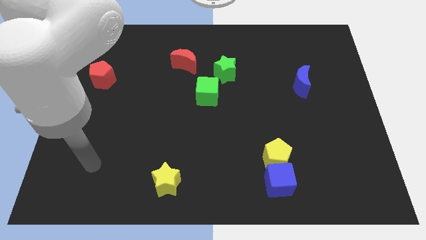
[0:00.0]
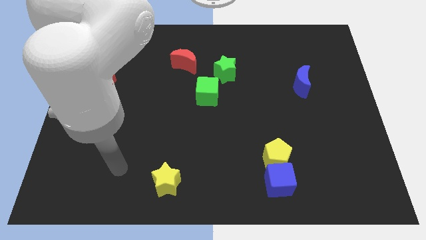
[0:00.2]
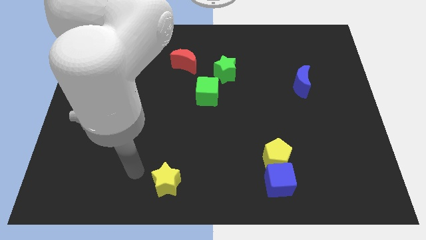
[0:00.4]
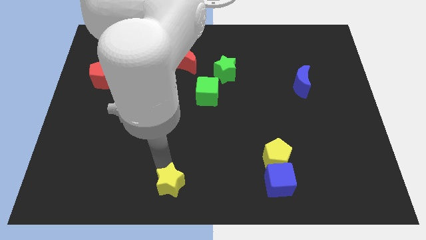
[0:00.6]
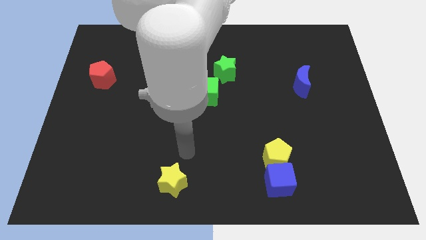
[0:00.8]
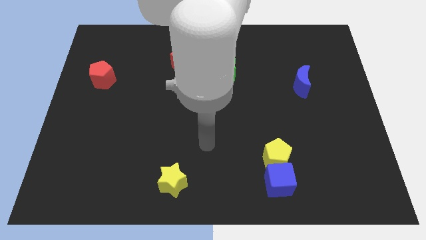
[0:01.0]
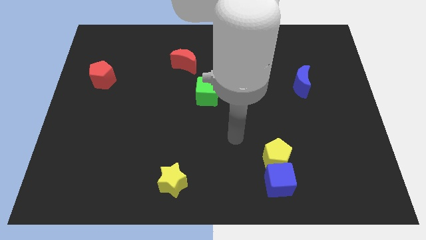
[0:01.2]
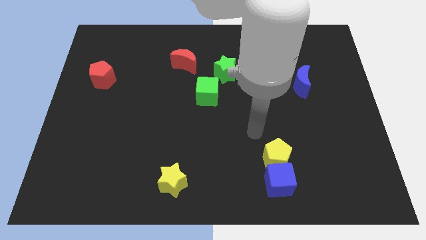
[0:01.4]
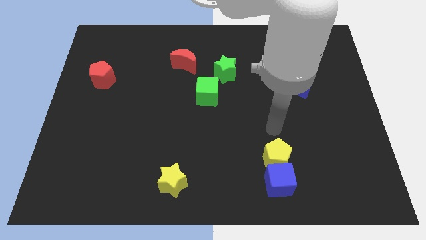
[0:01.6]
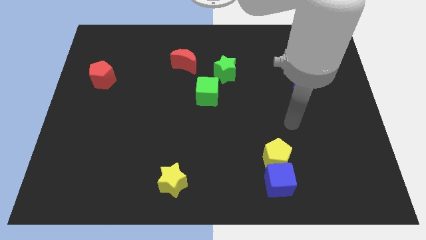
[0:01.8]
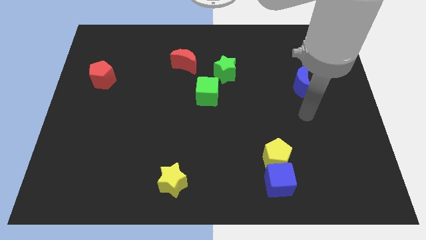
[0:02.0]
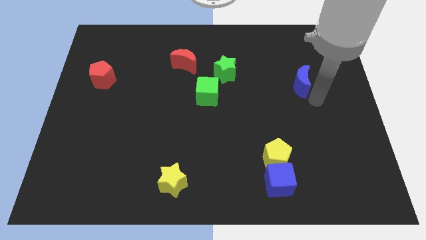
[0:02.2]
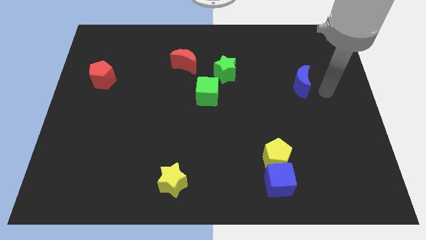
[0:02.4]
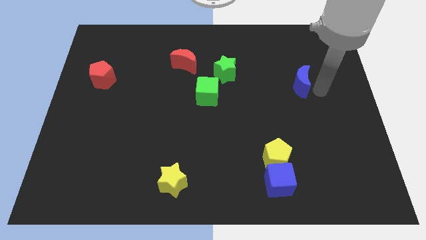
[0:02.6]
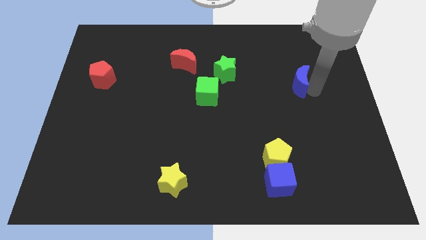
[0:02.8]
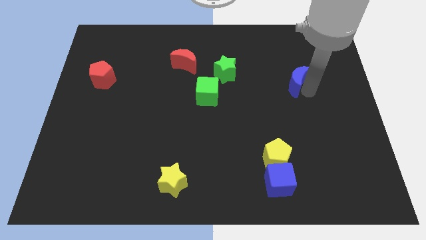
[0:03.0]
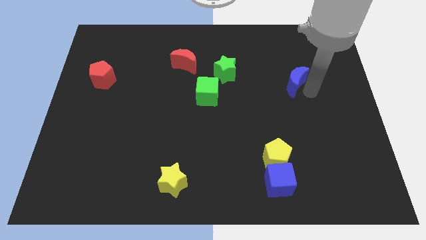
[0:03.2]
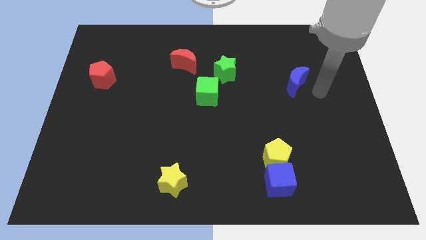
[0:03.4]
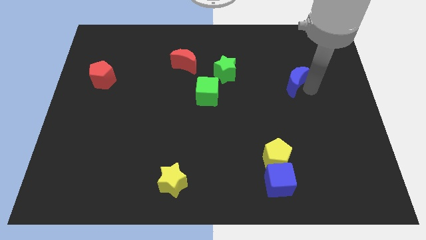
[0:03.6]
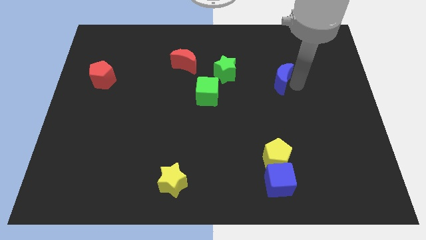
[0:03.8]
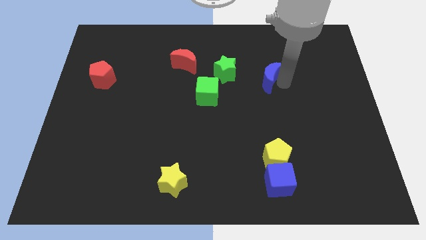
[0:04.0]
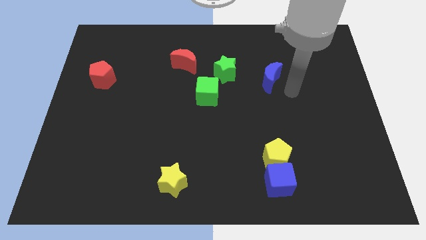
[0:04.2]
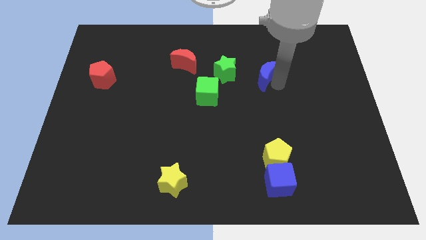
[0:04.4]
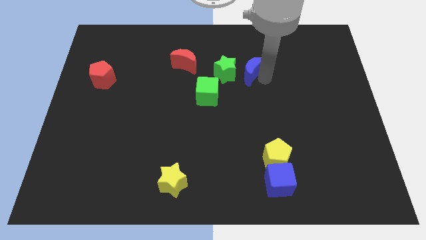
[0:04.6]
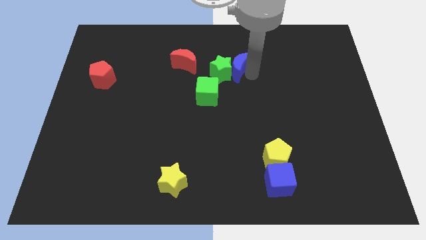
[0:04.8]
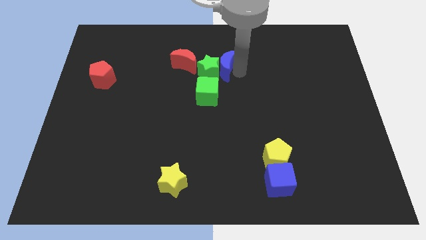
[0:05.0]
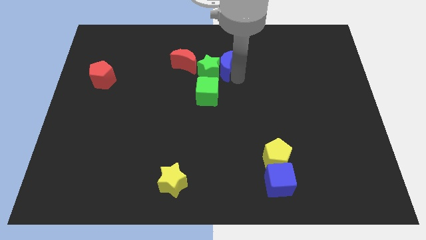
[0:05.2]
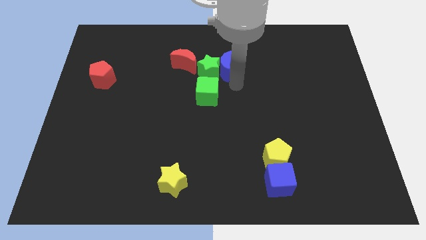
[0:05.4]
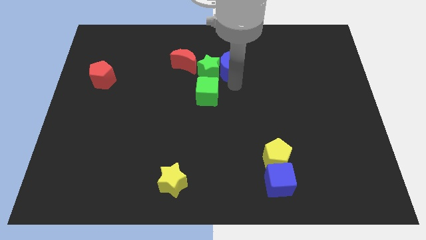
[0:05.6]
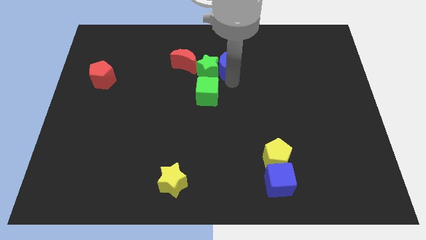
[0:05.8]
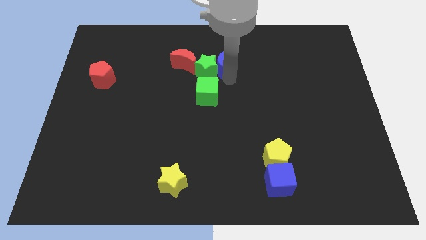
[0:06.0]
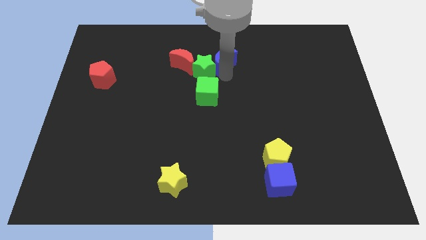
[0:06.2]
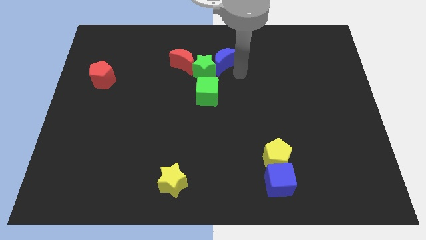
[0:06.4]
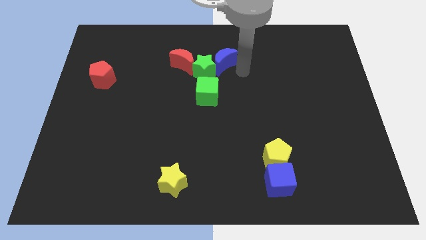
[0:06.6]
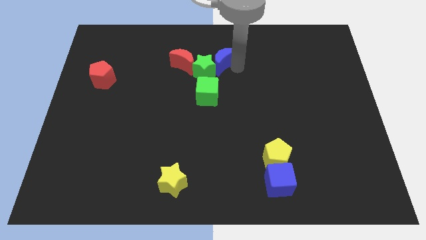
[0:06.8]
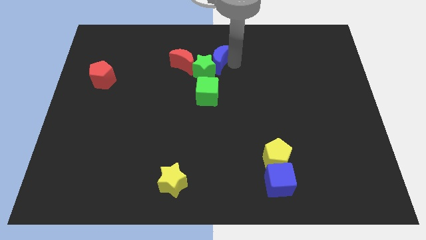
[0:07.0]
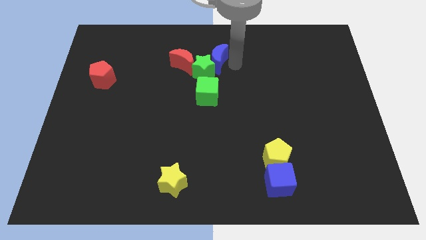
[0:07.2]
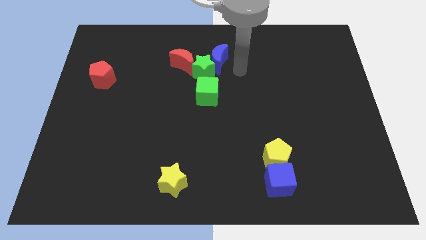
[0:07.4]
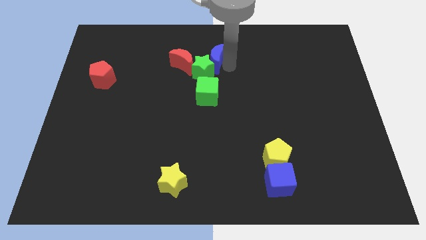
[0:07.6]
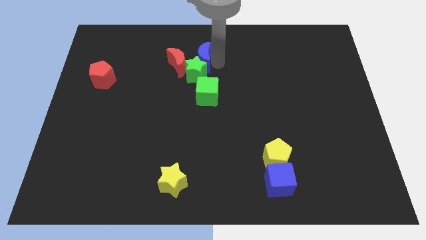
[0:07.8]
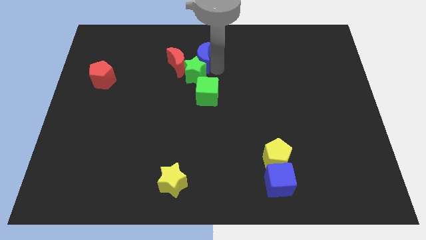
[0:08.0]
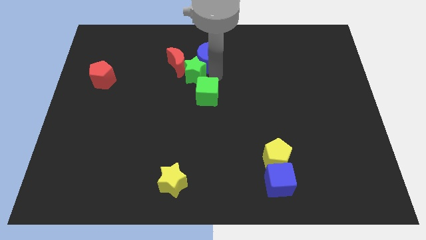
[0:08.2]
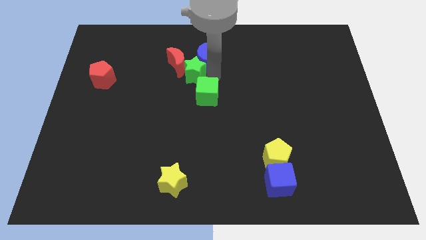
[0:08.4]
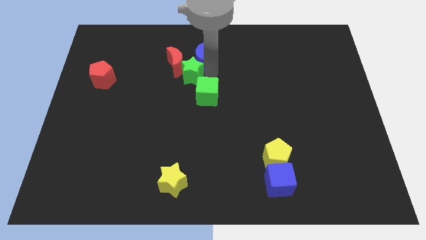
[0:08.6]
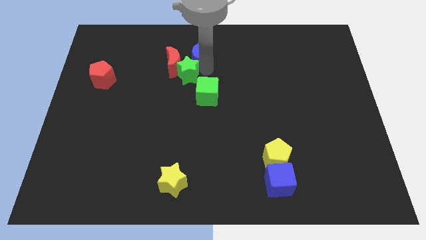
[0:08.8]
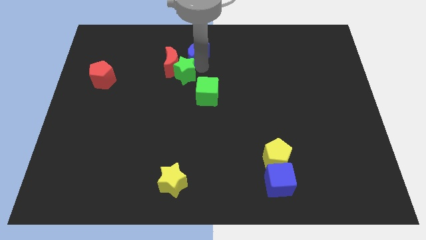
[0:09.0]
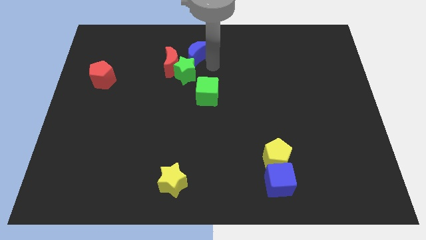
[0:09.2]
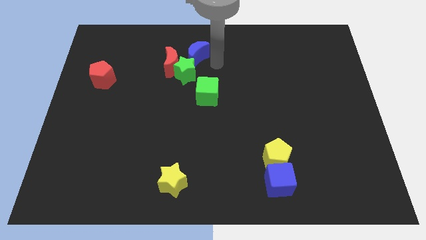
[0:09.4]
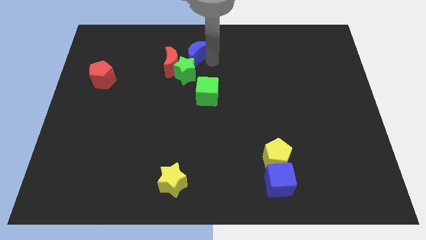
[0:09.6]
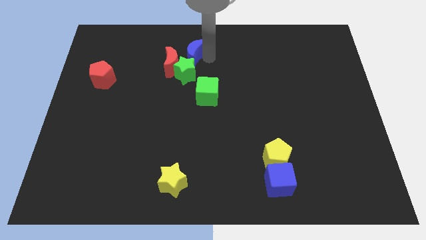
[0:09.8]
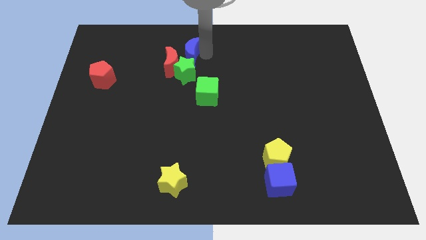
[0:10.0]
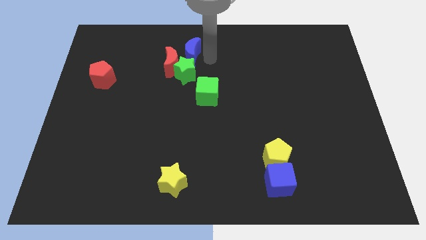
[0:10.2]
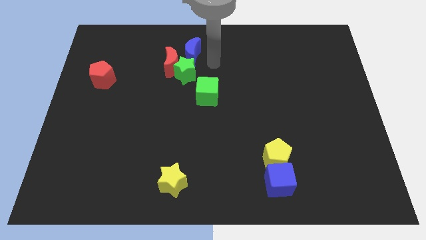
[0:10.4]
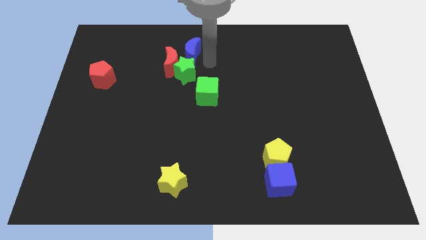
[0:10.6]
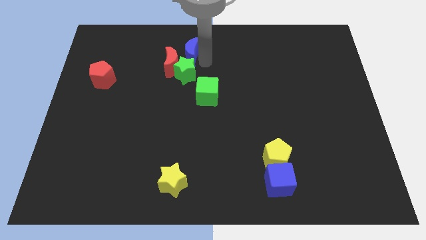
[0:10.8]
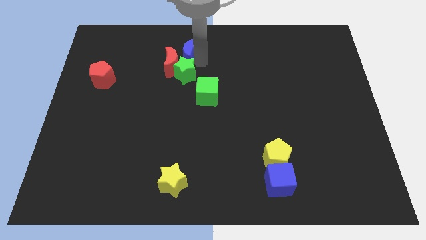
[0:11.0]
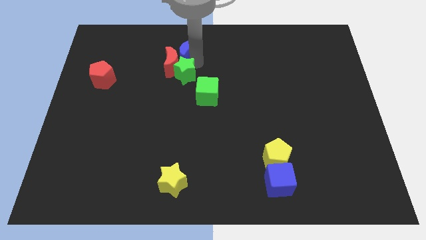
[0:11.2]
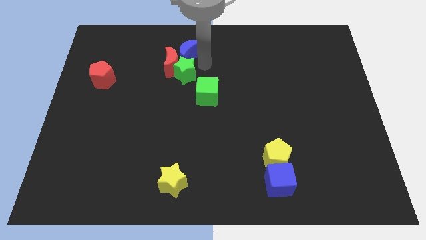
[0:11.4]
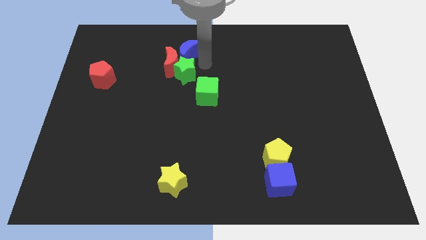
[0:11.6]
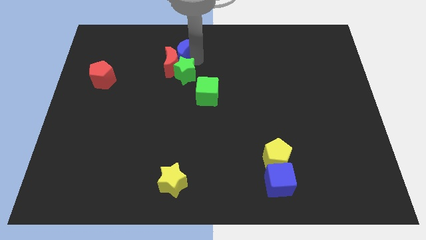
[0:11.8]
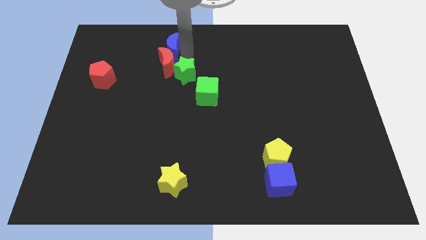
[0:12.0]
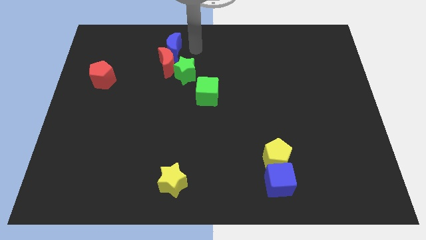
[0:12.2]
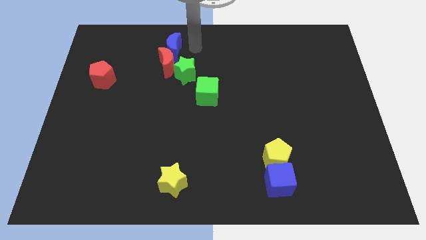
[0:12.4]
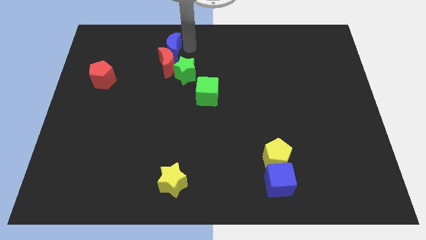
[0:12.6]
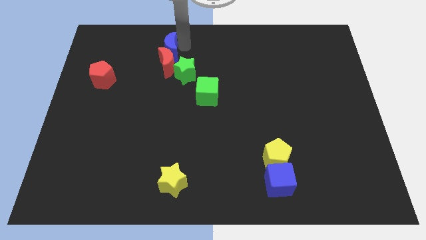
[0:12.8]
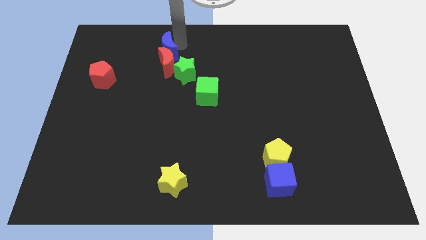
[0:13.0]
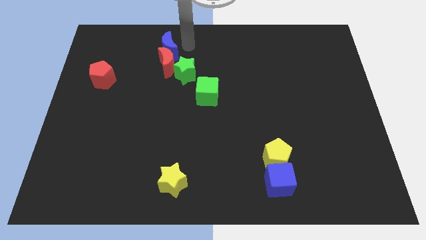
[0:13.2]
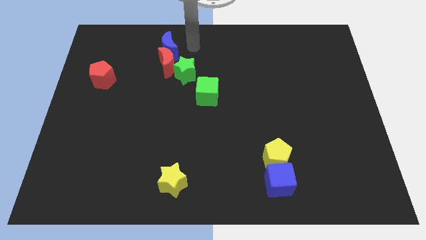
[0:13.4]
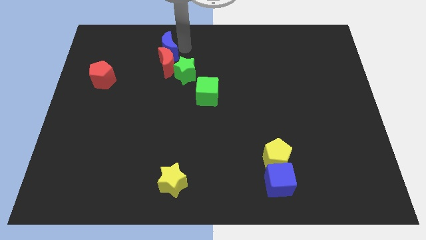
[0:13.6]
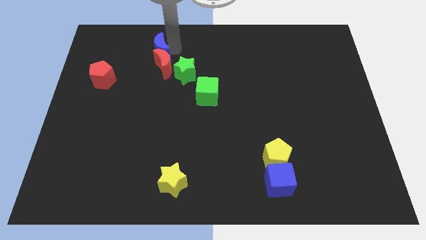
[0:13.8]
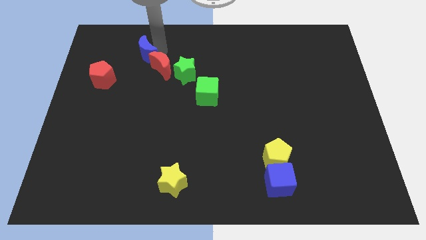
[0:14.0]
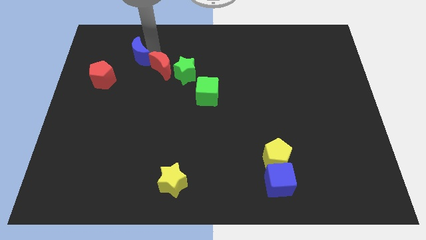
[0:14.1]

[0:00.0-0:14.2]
put the blue moon to the top right of the red pentagon

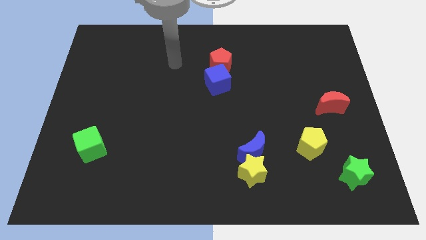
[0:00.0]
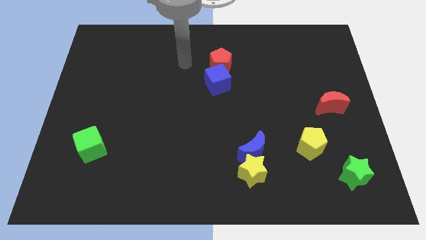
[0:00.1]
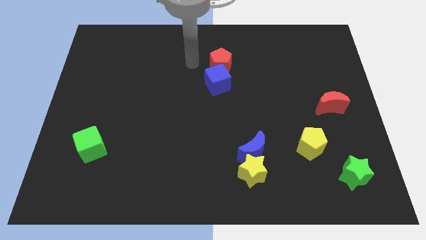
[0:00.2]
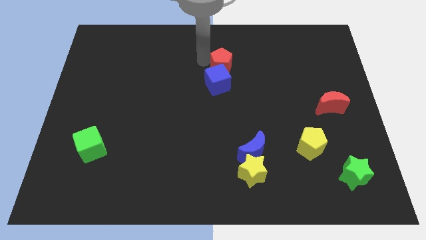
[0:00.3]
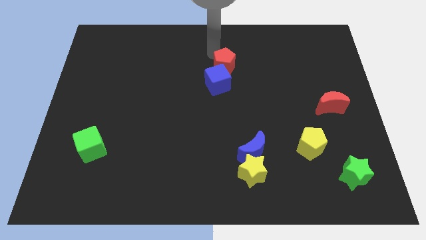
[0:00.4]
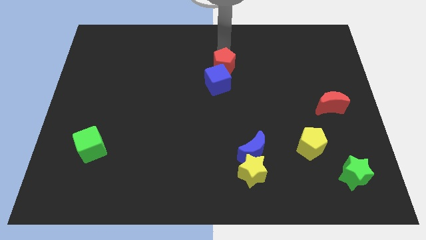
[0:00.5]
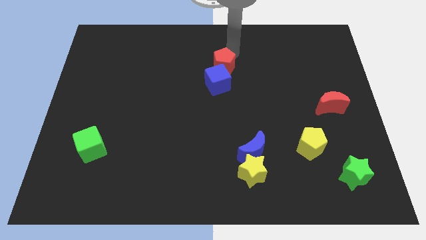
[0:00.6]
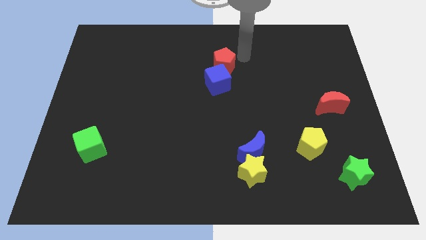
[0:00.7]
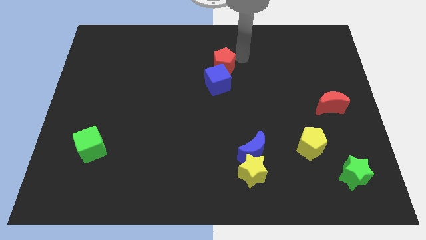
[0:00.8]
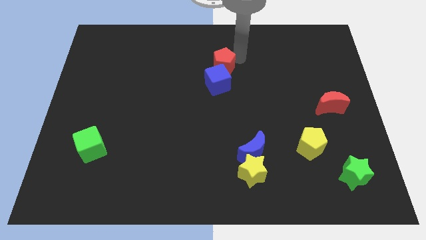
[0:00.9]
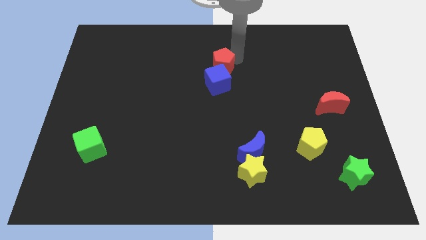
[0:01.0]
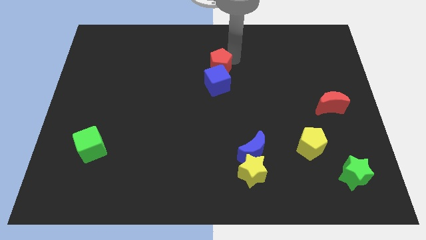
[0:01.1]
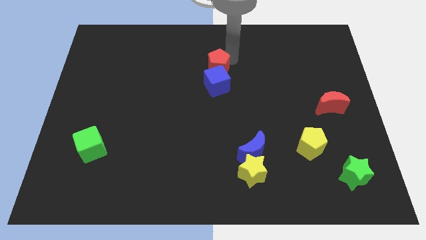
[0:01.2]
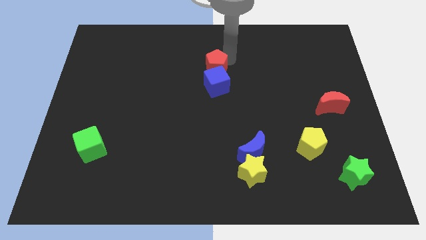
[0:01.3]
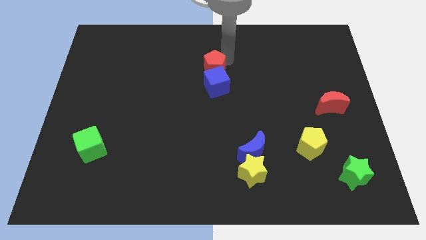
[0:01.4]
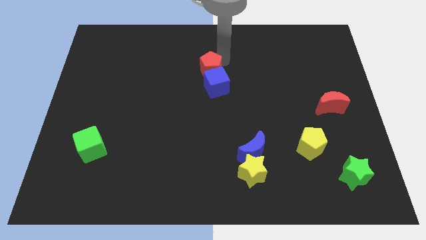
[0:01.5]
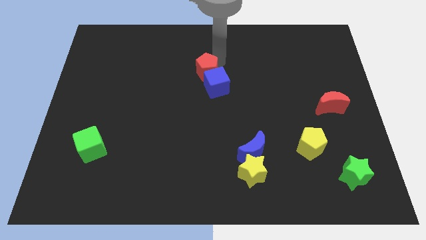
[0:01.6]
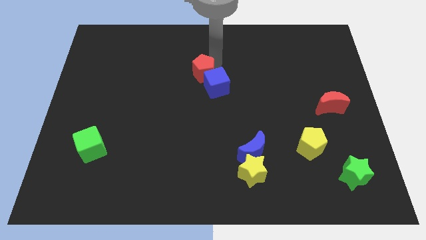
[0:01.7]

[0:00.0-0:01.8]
put the red pentagon to the left of the blue cube
